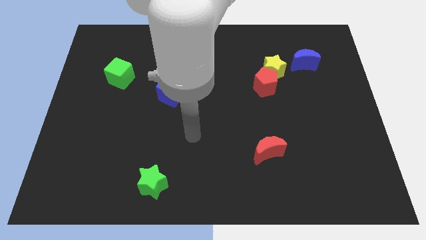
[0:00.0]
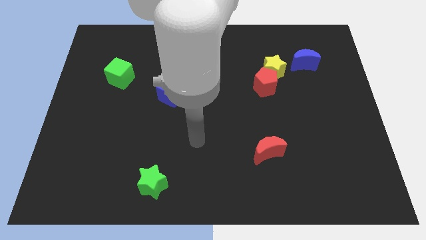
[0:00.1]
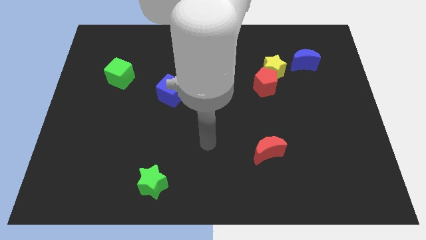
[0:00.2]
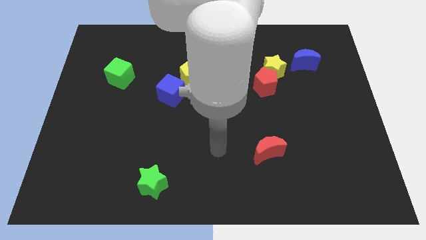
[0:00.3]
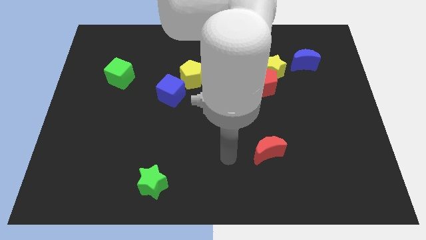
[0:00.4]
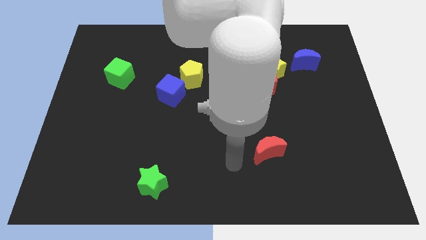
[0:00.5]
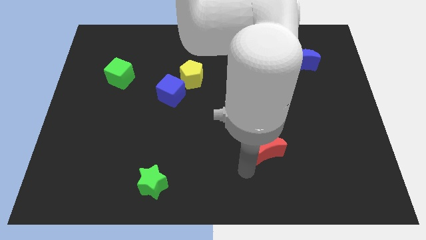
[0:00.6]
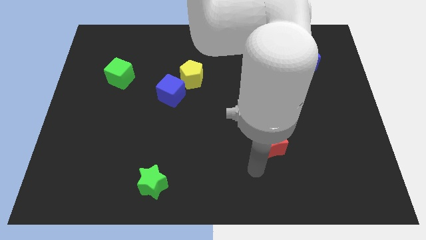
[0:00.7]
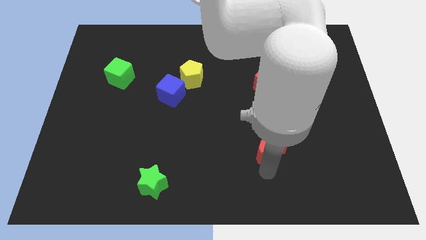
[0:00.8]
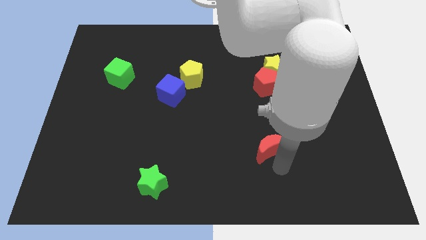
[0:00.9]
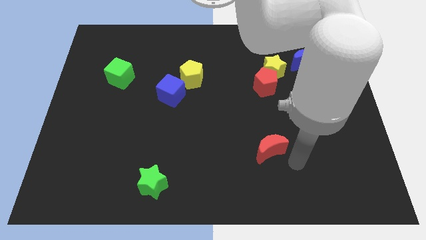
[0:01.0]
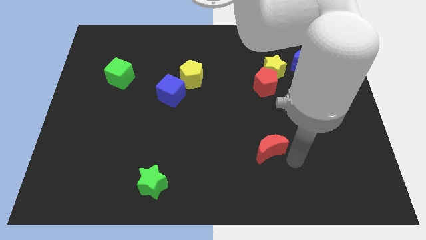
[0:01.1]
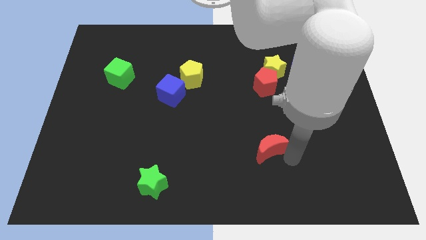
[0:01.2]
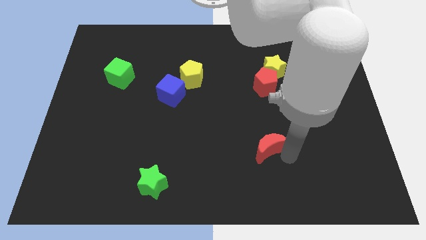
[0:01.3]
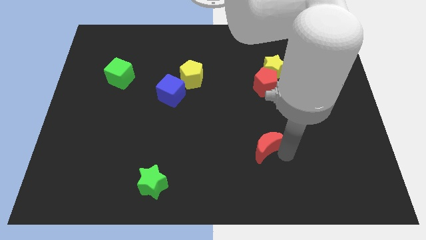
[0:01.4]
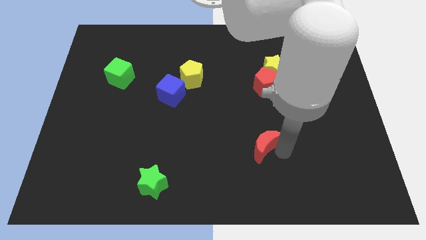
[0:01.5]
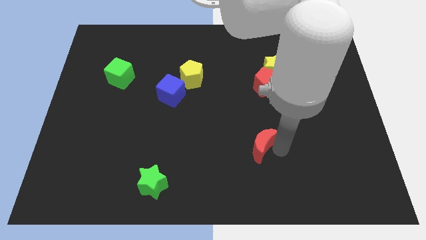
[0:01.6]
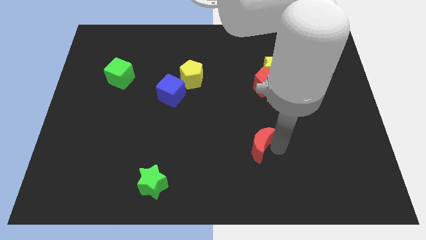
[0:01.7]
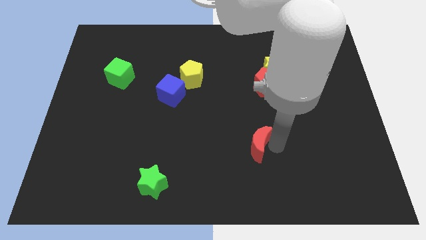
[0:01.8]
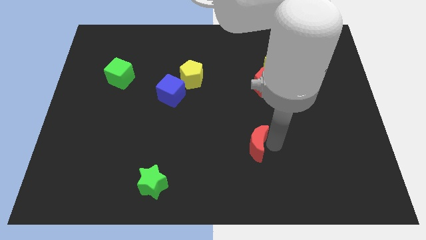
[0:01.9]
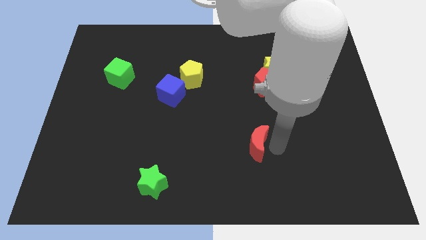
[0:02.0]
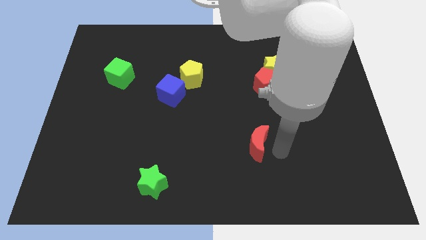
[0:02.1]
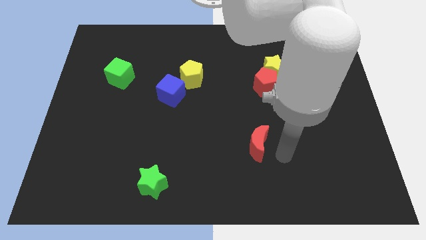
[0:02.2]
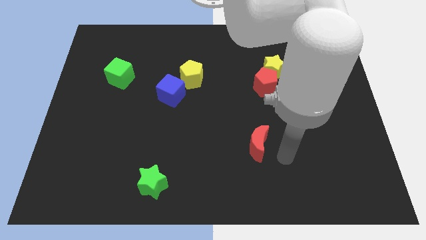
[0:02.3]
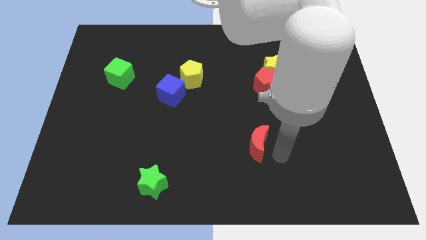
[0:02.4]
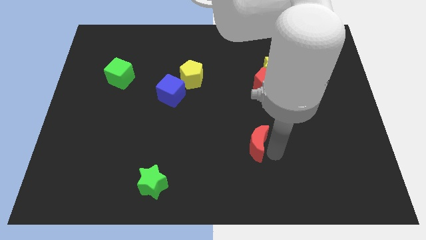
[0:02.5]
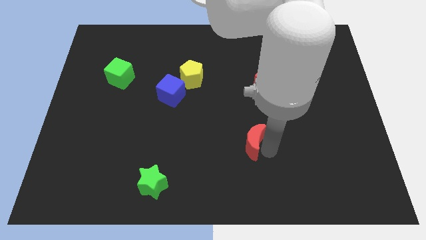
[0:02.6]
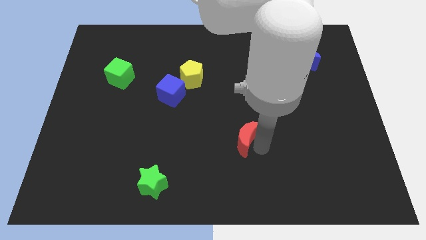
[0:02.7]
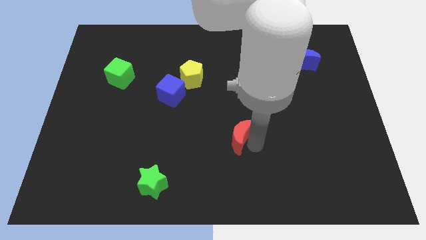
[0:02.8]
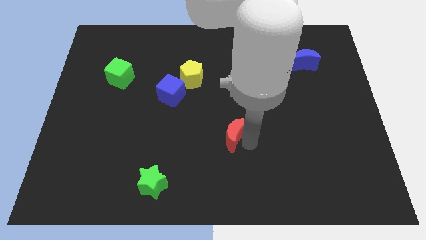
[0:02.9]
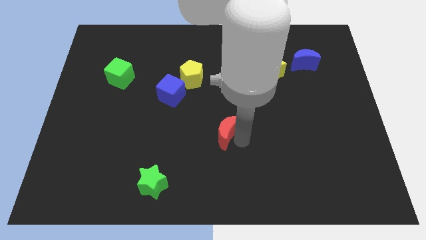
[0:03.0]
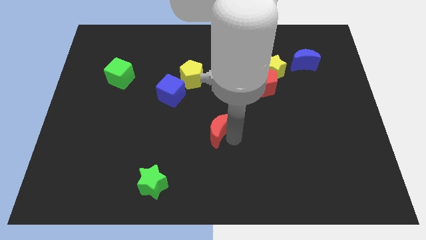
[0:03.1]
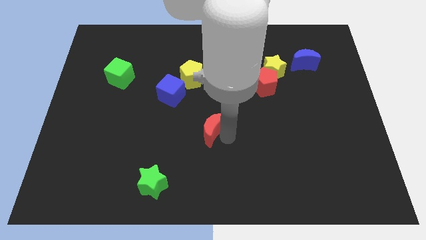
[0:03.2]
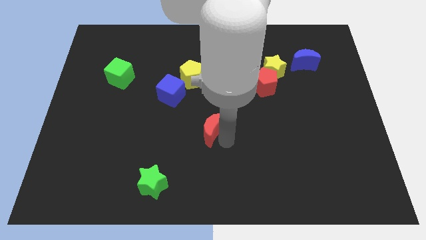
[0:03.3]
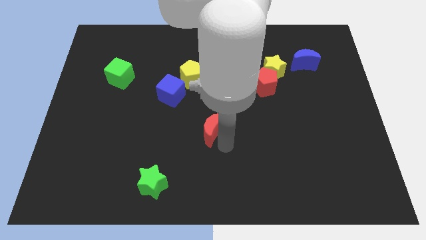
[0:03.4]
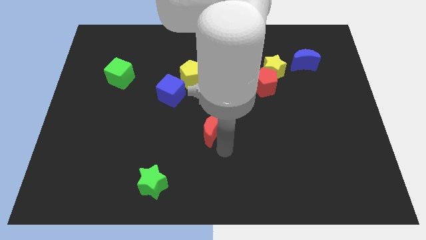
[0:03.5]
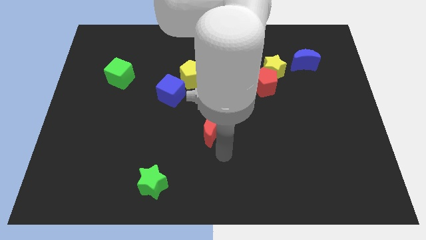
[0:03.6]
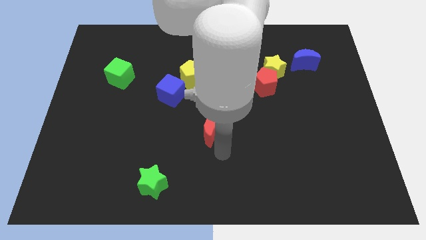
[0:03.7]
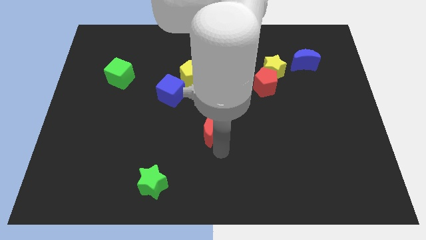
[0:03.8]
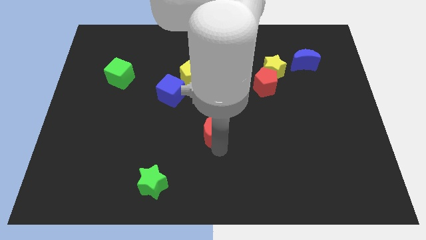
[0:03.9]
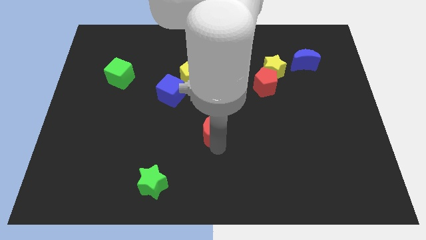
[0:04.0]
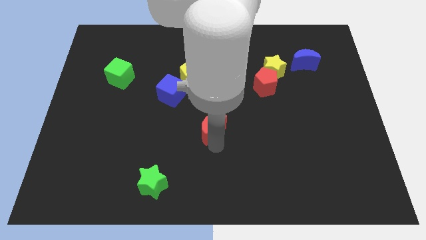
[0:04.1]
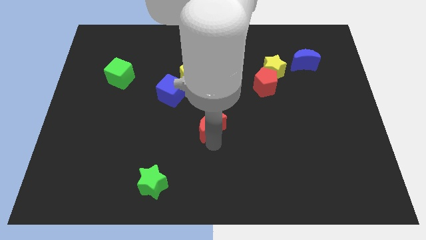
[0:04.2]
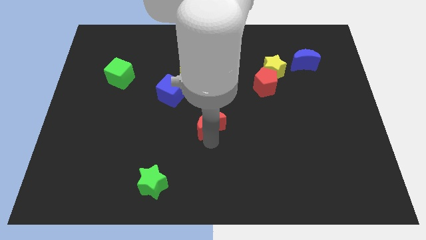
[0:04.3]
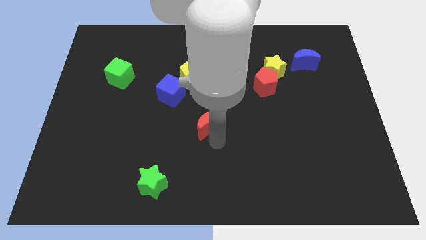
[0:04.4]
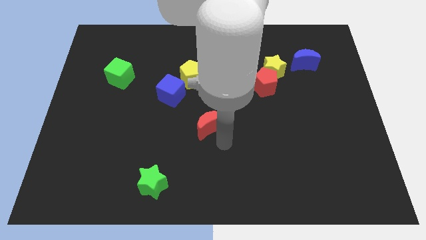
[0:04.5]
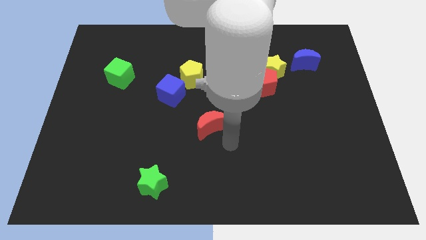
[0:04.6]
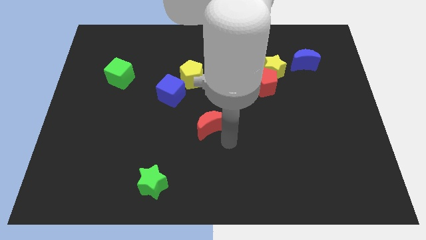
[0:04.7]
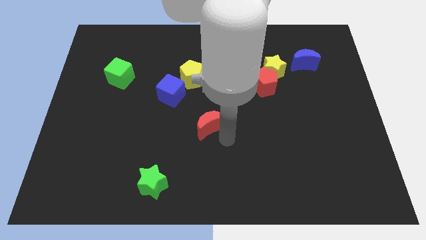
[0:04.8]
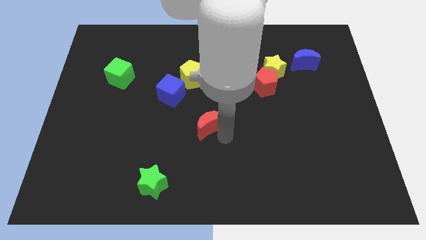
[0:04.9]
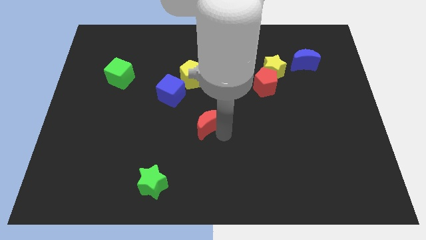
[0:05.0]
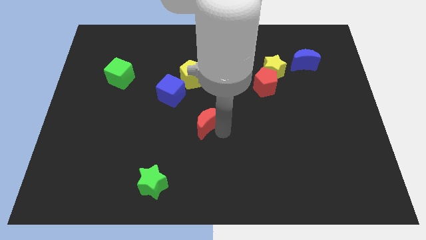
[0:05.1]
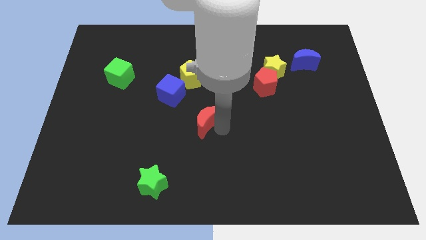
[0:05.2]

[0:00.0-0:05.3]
slide the red moon below the yellow pentagon

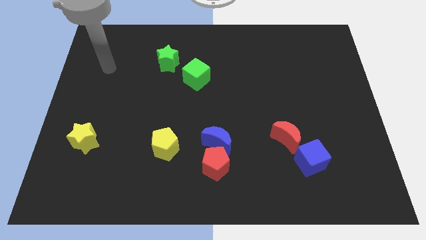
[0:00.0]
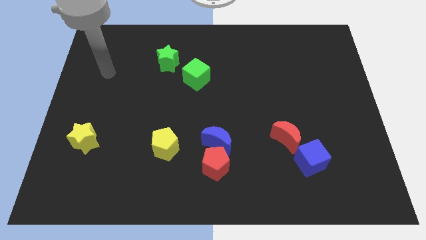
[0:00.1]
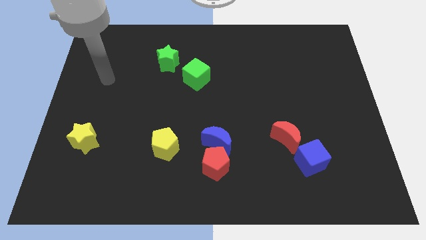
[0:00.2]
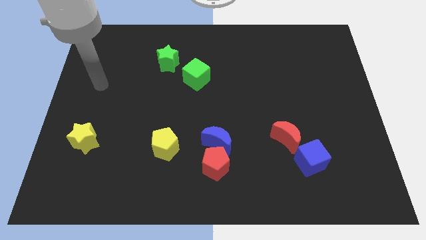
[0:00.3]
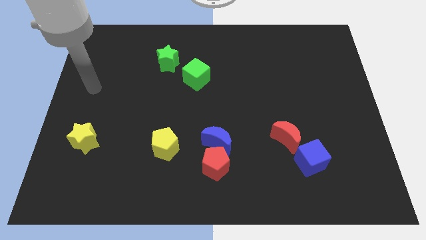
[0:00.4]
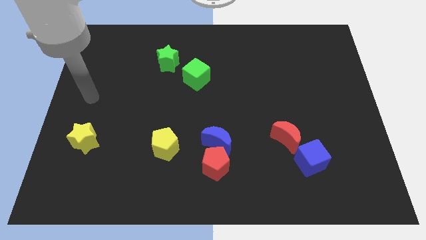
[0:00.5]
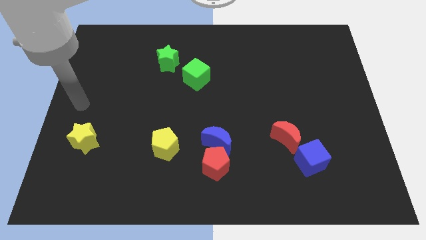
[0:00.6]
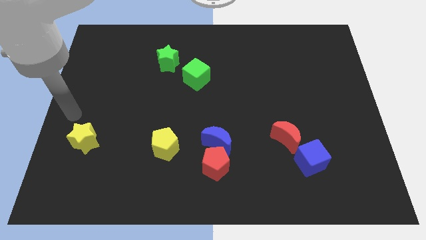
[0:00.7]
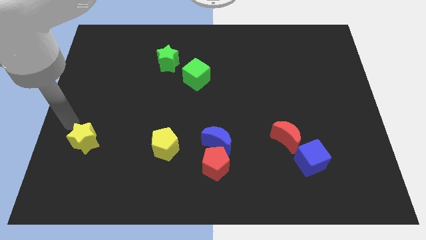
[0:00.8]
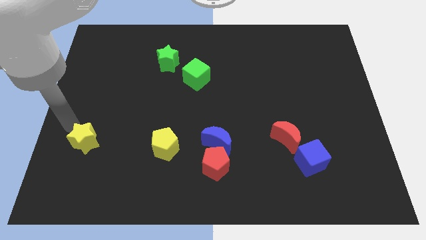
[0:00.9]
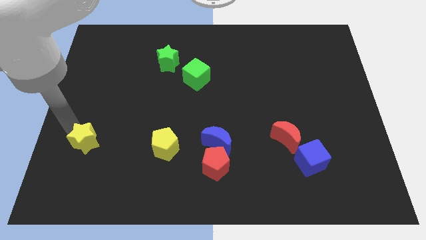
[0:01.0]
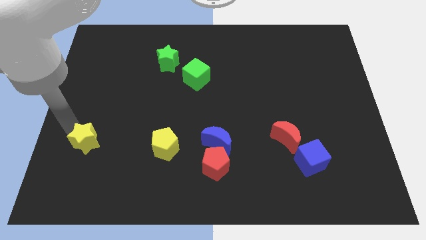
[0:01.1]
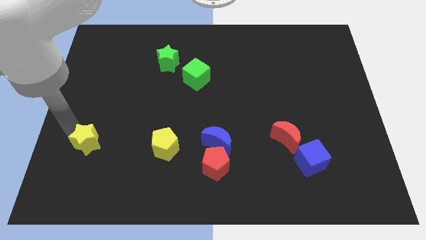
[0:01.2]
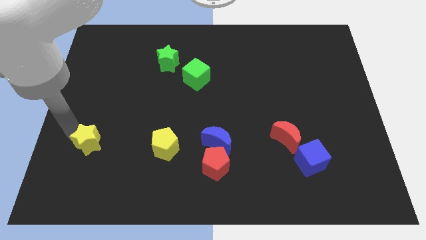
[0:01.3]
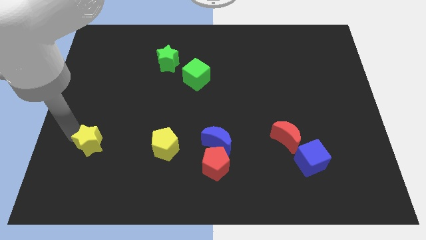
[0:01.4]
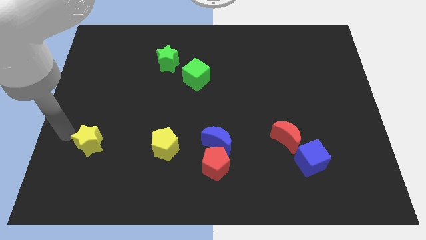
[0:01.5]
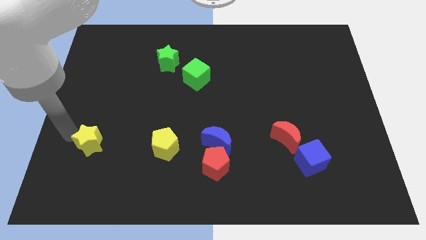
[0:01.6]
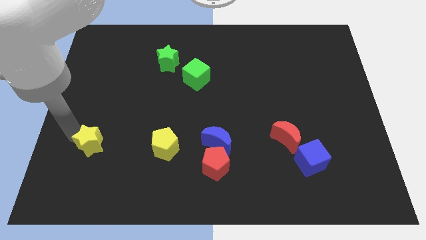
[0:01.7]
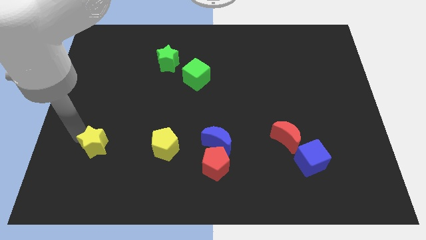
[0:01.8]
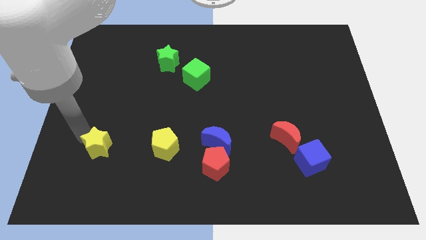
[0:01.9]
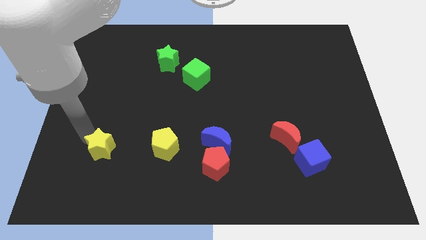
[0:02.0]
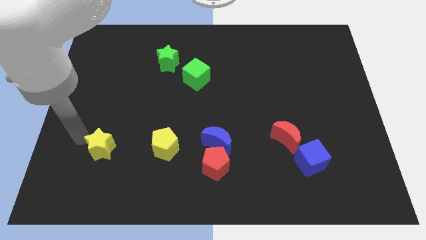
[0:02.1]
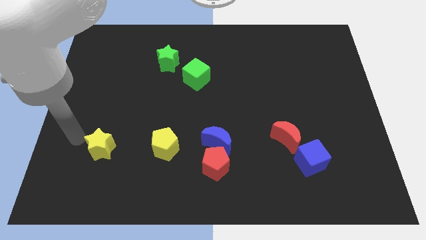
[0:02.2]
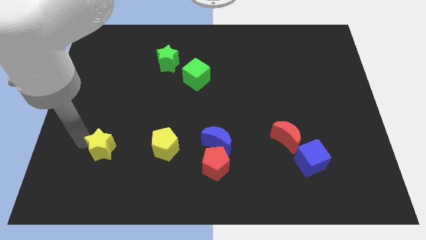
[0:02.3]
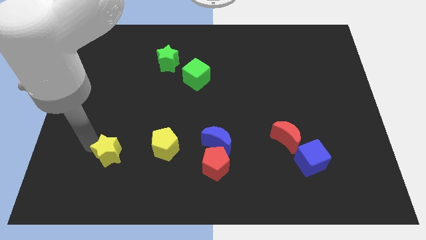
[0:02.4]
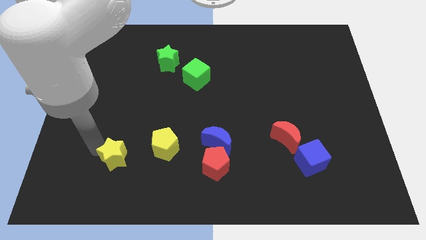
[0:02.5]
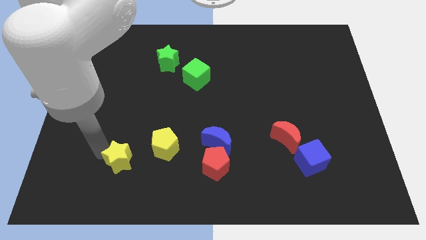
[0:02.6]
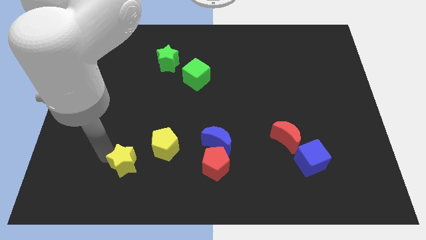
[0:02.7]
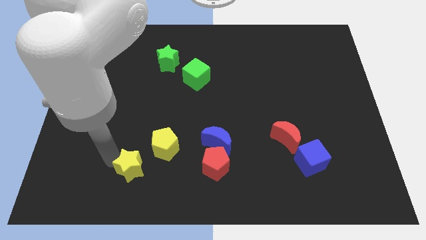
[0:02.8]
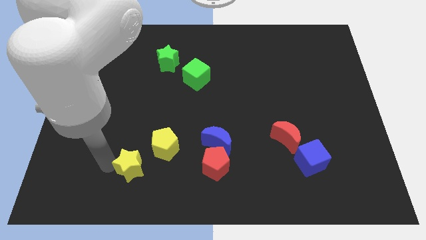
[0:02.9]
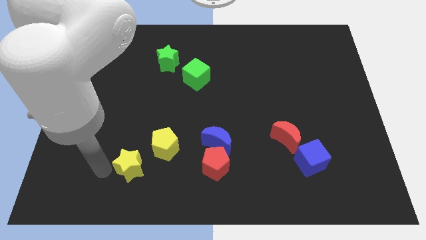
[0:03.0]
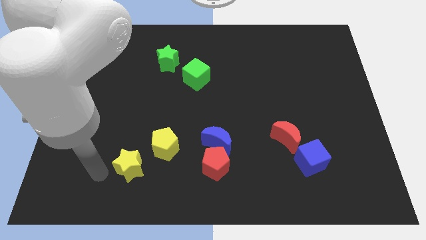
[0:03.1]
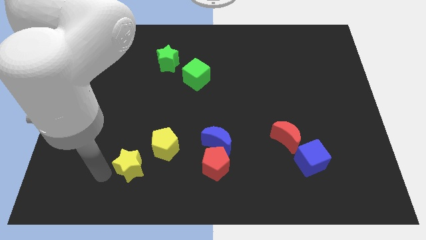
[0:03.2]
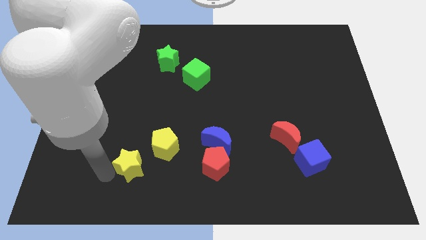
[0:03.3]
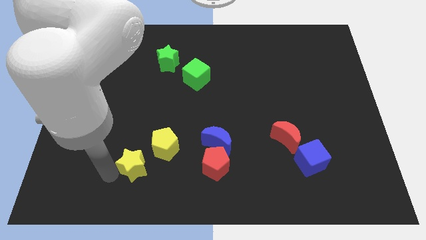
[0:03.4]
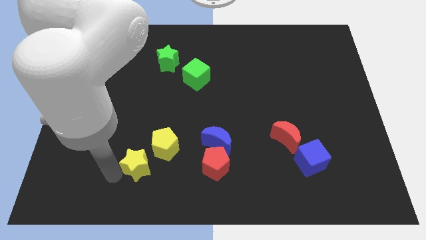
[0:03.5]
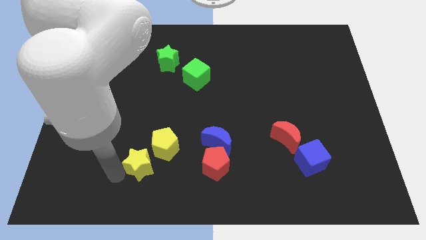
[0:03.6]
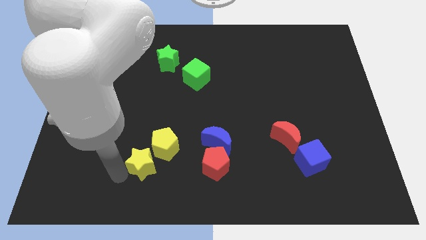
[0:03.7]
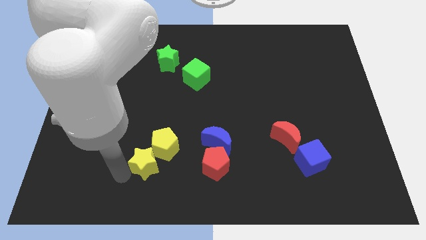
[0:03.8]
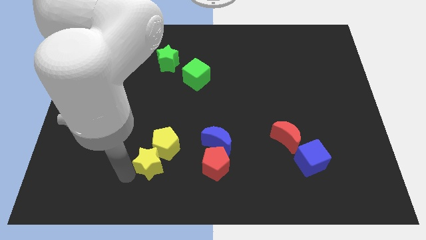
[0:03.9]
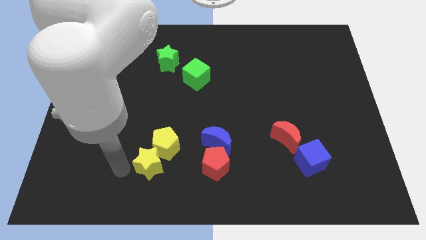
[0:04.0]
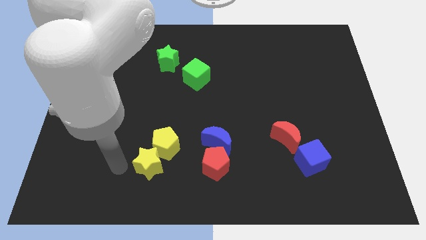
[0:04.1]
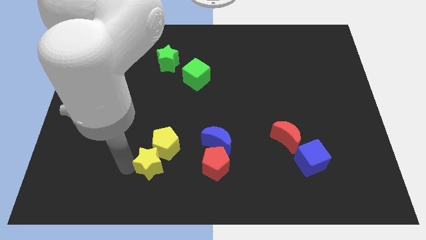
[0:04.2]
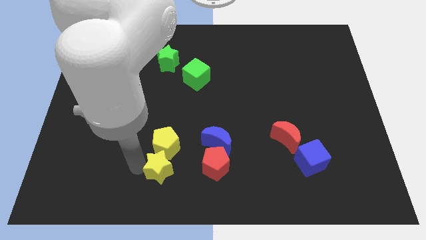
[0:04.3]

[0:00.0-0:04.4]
push the yellow star to the bottom right of the yellow pentagon
